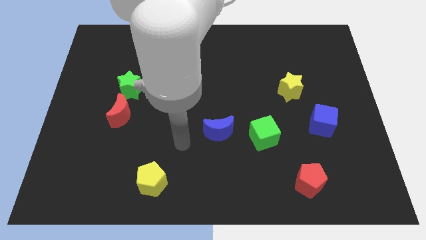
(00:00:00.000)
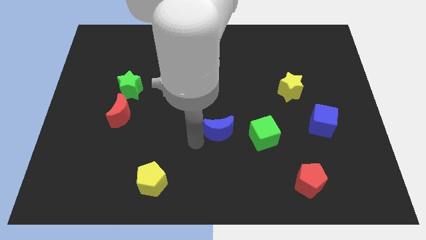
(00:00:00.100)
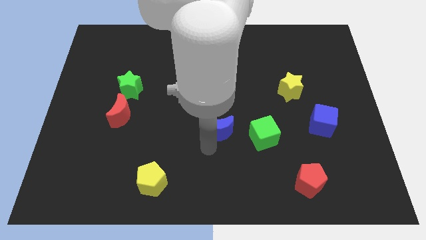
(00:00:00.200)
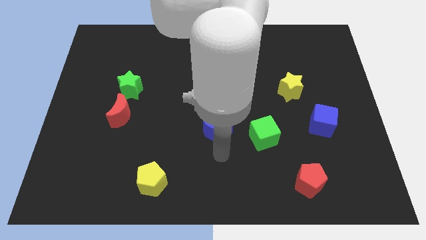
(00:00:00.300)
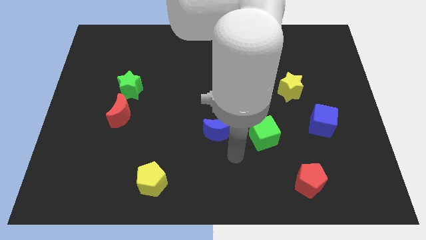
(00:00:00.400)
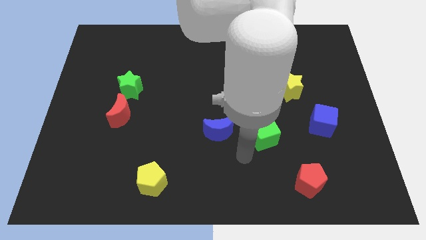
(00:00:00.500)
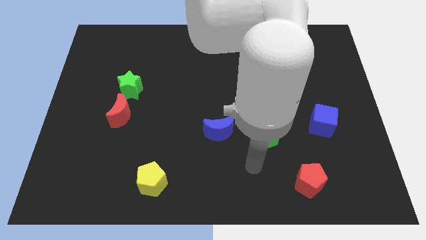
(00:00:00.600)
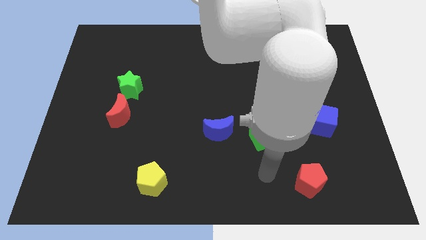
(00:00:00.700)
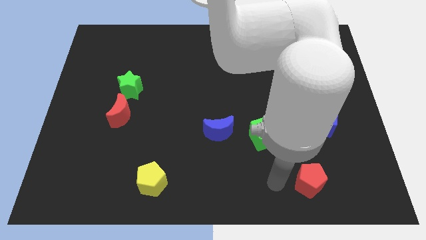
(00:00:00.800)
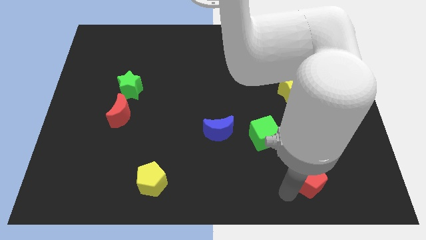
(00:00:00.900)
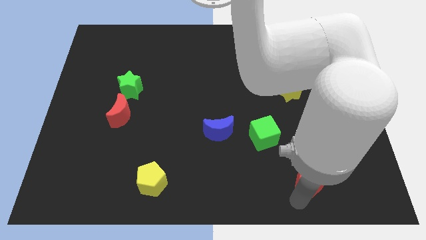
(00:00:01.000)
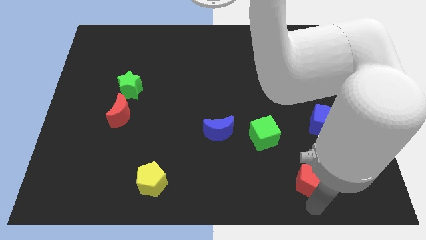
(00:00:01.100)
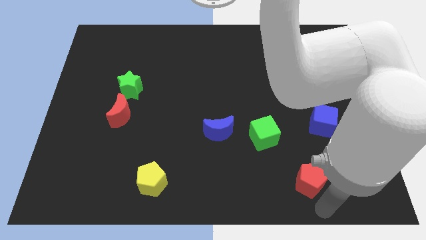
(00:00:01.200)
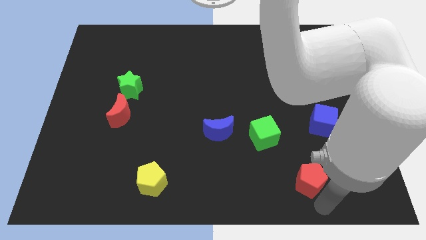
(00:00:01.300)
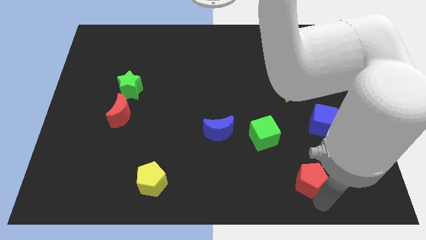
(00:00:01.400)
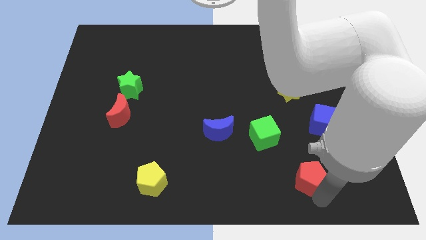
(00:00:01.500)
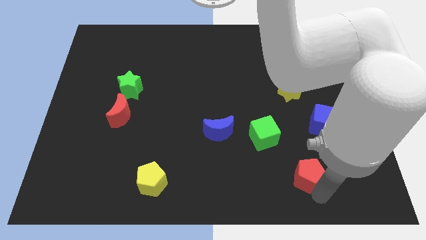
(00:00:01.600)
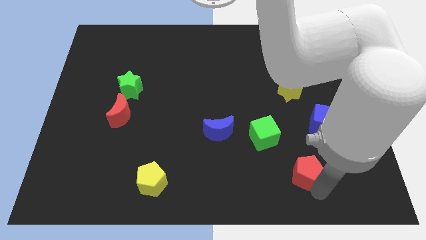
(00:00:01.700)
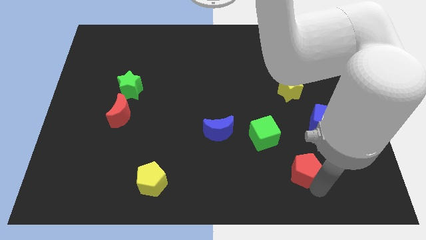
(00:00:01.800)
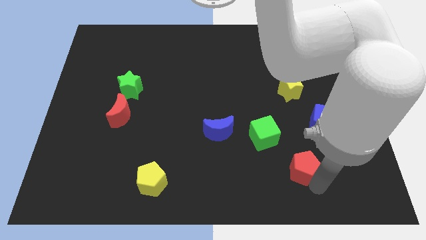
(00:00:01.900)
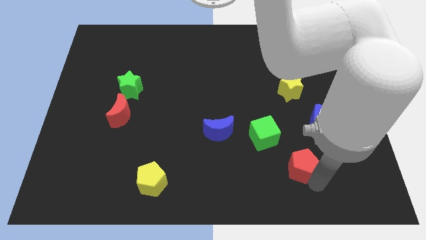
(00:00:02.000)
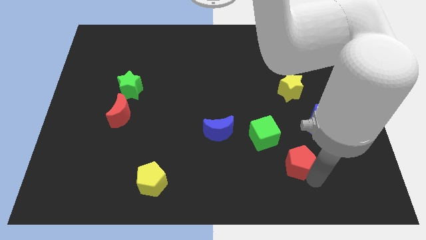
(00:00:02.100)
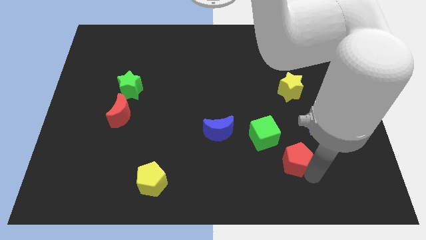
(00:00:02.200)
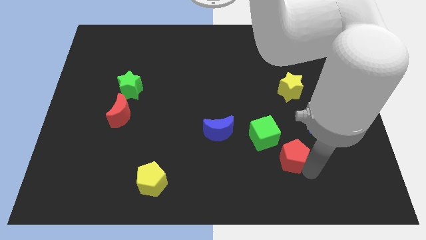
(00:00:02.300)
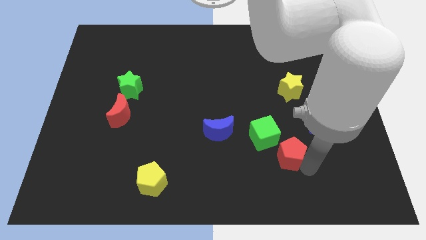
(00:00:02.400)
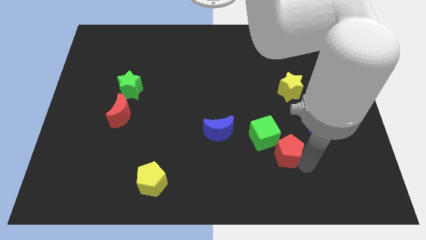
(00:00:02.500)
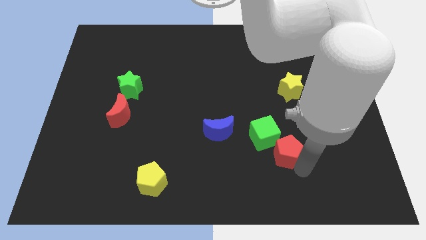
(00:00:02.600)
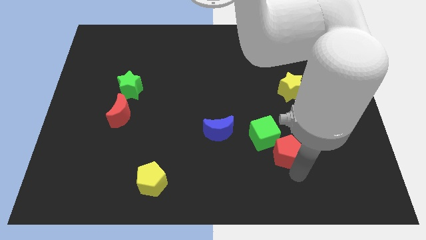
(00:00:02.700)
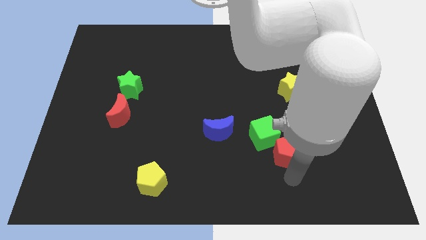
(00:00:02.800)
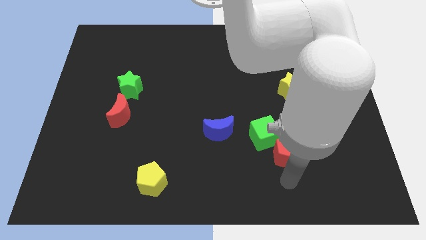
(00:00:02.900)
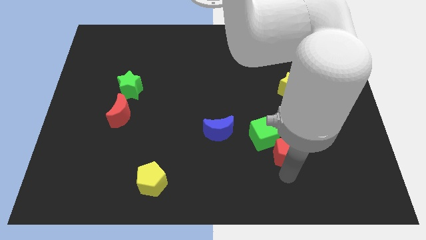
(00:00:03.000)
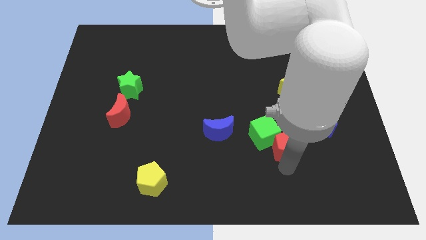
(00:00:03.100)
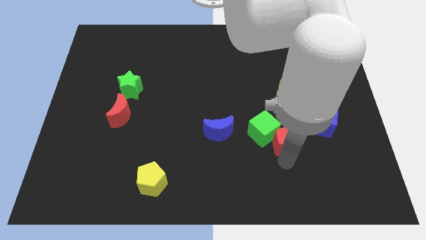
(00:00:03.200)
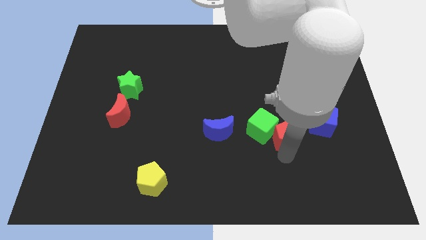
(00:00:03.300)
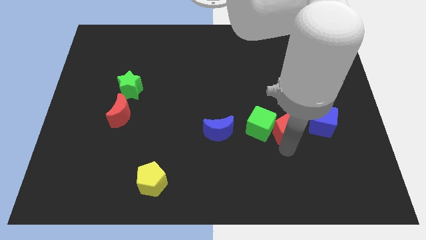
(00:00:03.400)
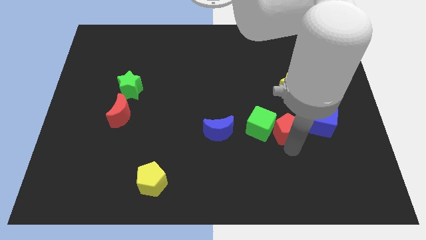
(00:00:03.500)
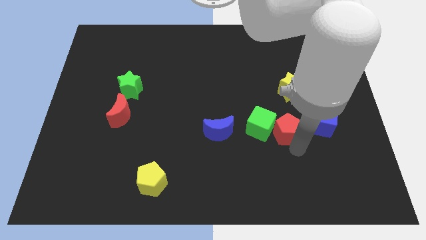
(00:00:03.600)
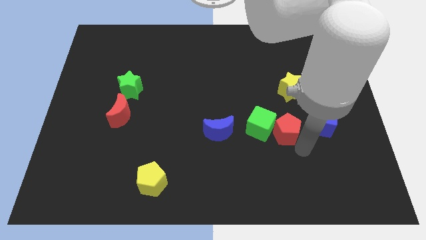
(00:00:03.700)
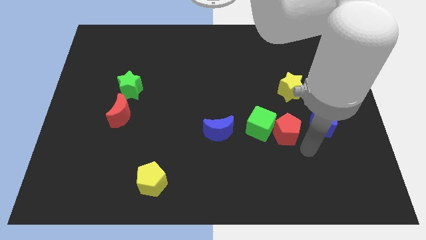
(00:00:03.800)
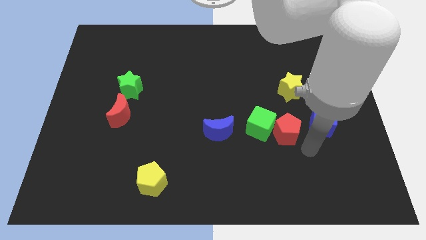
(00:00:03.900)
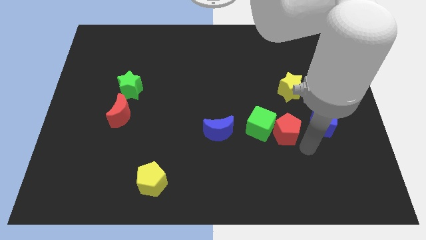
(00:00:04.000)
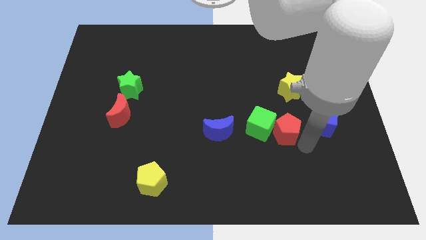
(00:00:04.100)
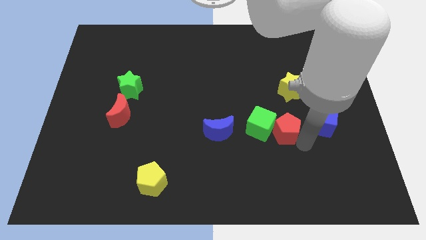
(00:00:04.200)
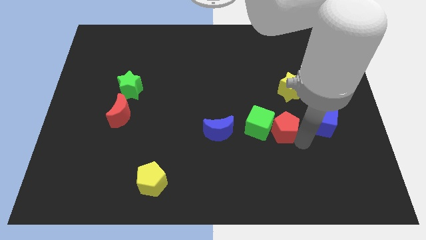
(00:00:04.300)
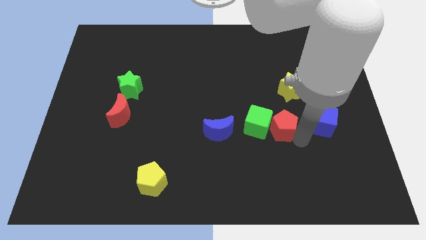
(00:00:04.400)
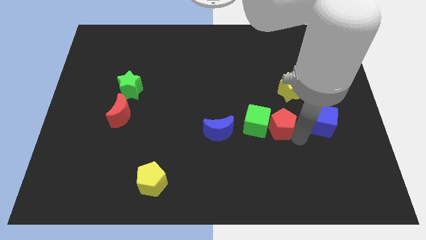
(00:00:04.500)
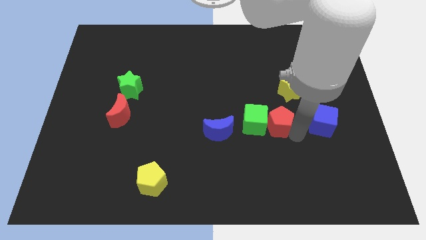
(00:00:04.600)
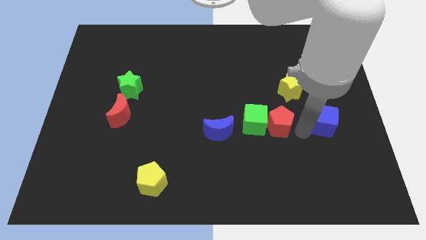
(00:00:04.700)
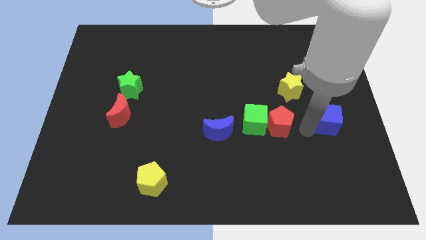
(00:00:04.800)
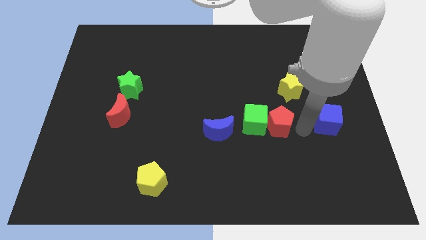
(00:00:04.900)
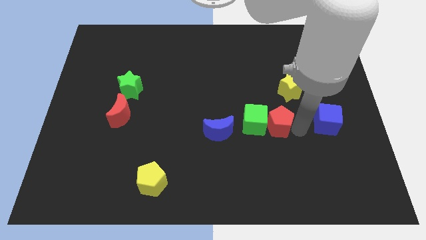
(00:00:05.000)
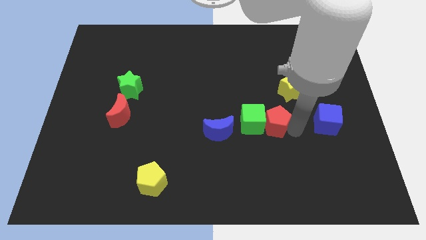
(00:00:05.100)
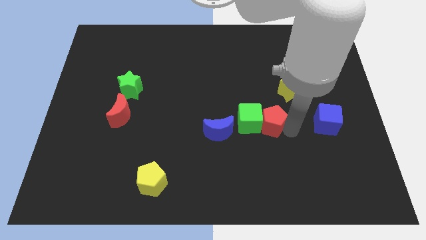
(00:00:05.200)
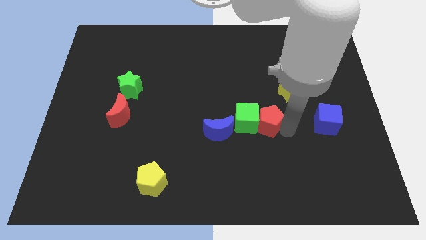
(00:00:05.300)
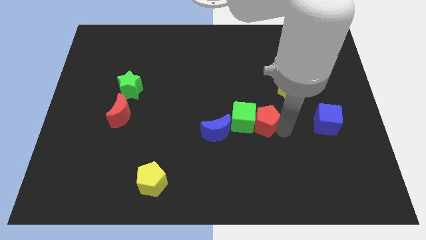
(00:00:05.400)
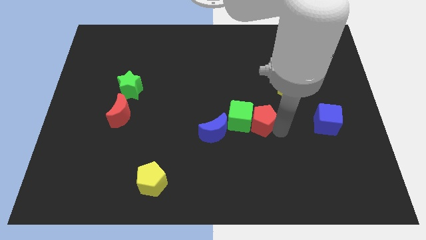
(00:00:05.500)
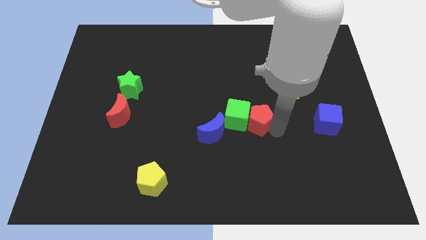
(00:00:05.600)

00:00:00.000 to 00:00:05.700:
push the red pentagon to the middle

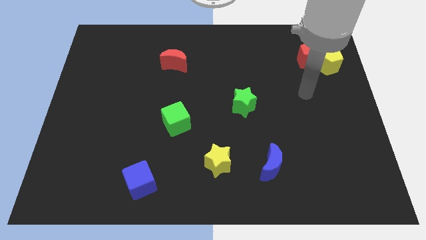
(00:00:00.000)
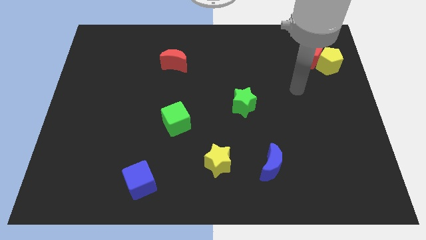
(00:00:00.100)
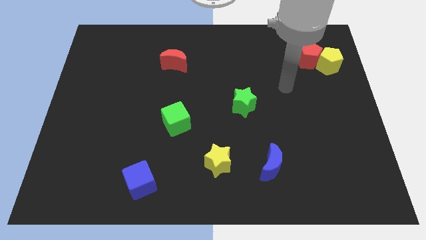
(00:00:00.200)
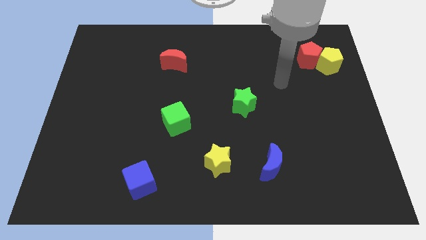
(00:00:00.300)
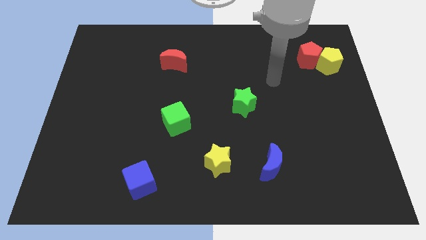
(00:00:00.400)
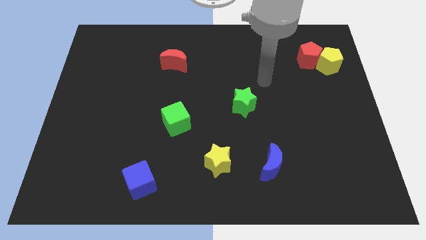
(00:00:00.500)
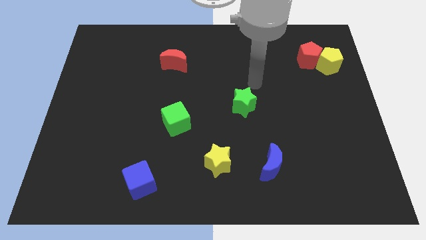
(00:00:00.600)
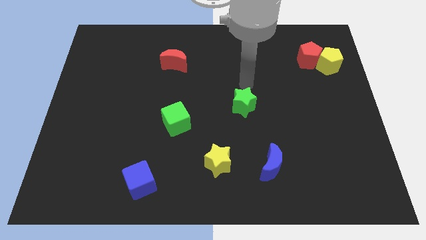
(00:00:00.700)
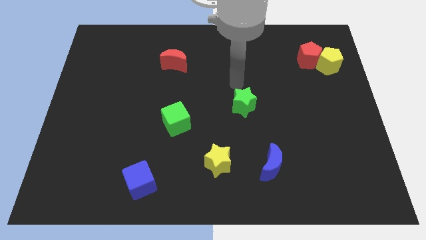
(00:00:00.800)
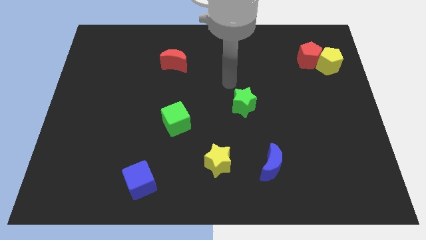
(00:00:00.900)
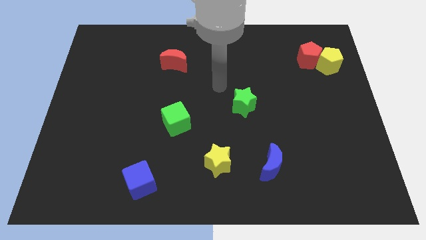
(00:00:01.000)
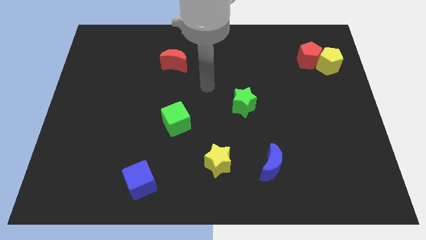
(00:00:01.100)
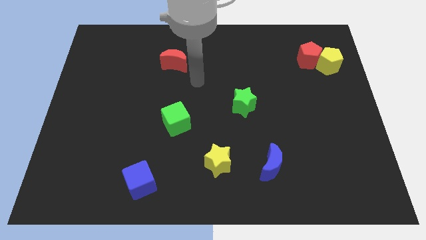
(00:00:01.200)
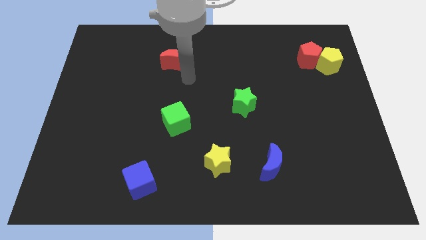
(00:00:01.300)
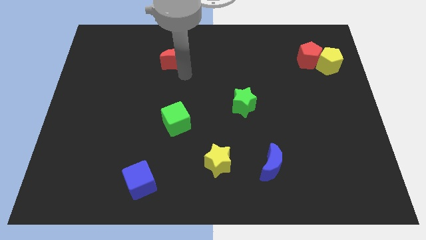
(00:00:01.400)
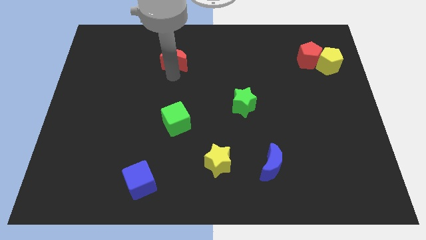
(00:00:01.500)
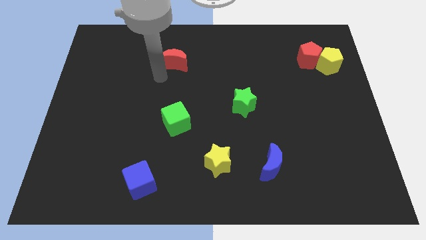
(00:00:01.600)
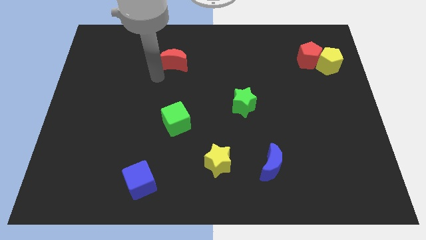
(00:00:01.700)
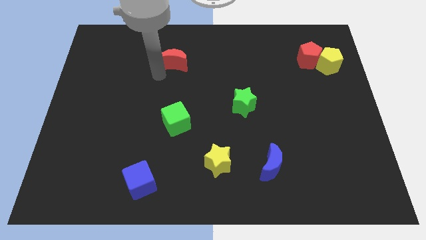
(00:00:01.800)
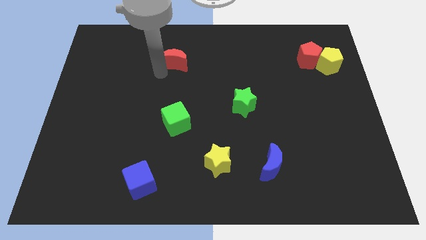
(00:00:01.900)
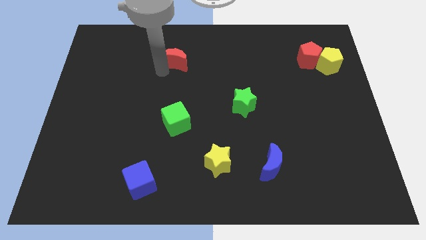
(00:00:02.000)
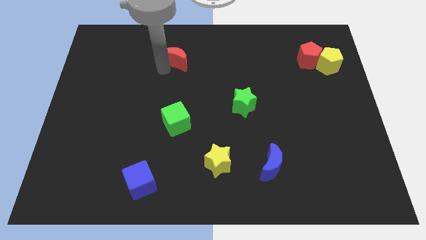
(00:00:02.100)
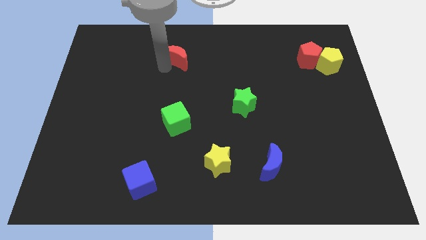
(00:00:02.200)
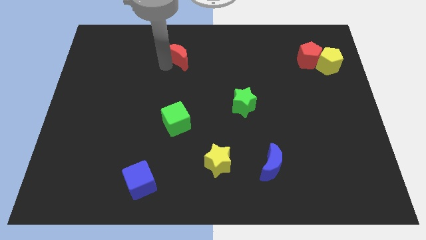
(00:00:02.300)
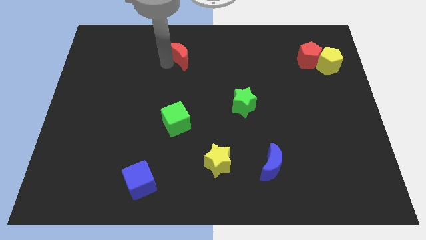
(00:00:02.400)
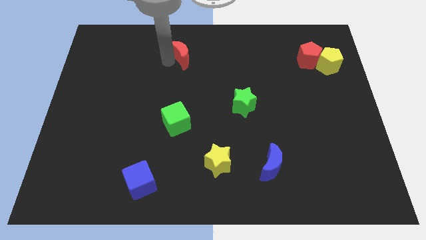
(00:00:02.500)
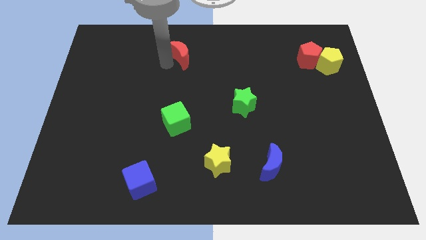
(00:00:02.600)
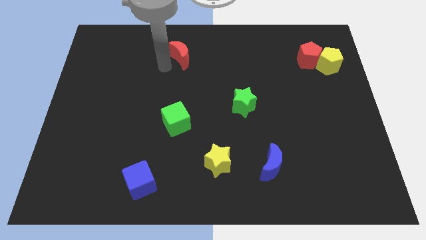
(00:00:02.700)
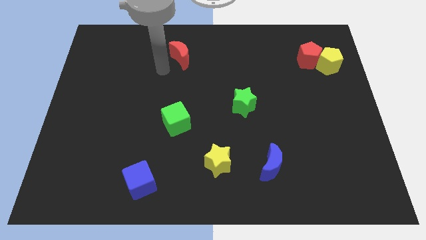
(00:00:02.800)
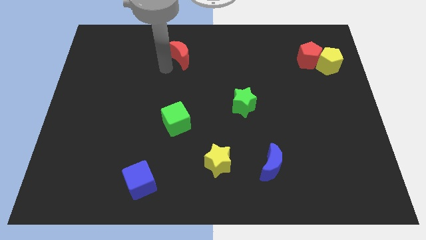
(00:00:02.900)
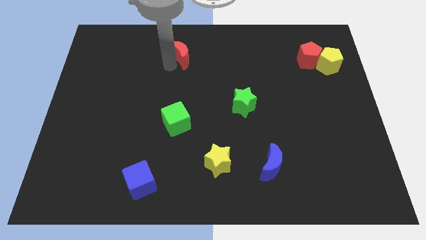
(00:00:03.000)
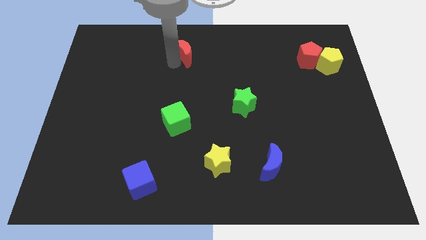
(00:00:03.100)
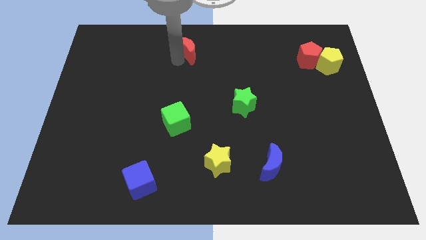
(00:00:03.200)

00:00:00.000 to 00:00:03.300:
put the red moon to the top
